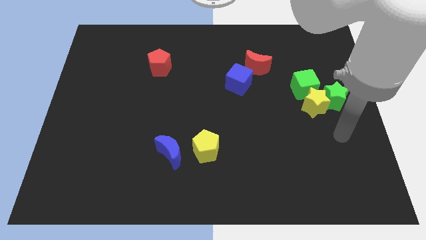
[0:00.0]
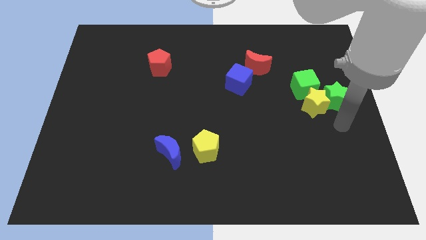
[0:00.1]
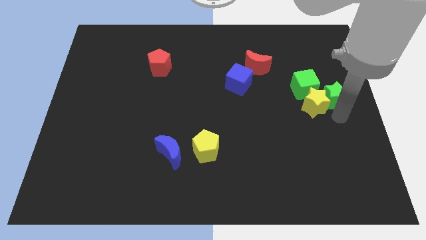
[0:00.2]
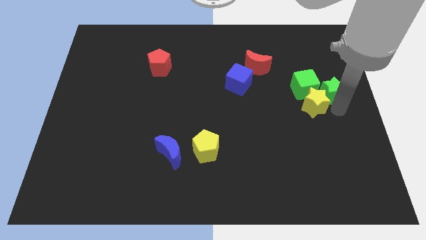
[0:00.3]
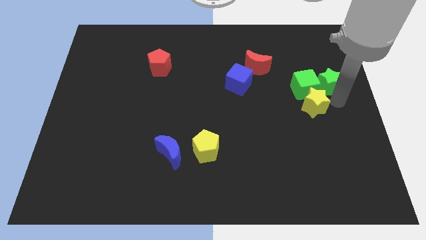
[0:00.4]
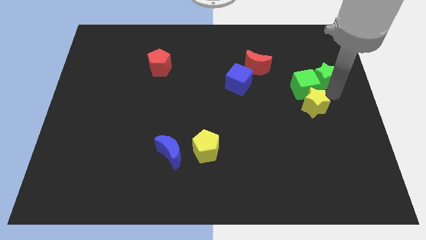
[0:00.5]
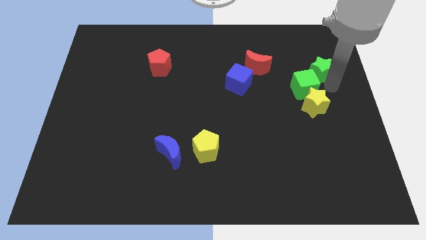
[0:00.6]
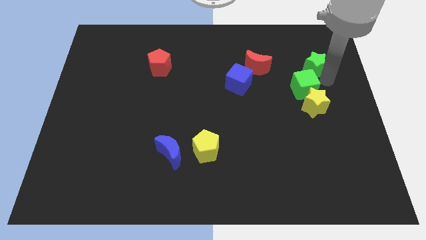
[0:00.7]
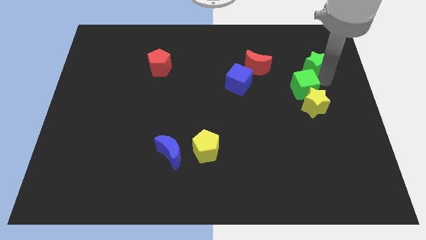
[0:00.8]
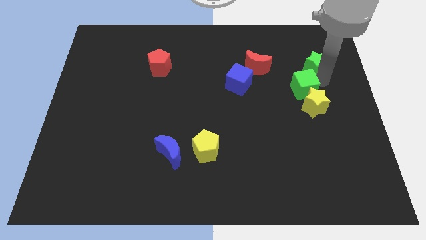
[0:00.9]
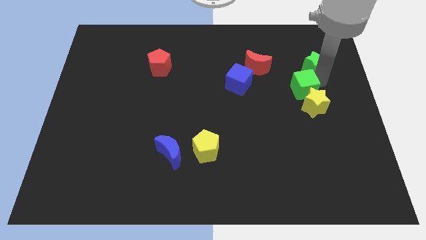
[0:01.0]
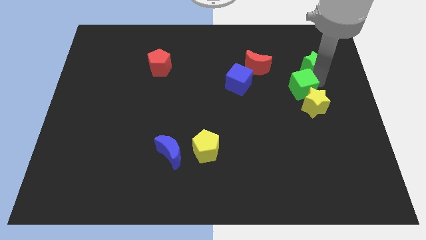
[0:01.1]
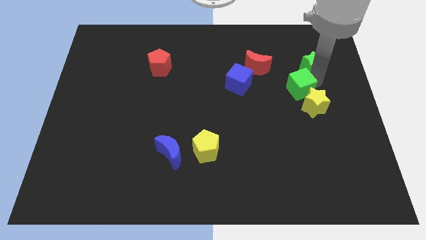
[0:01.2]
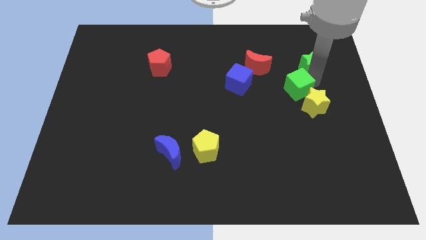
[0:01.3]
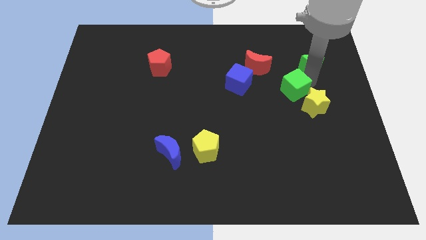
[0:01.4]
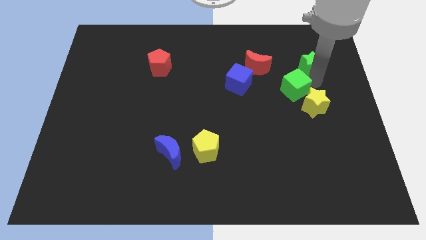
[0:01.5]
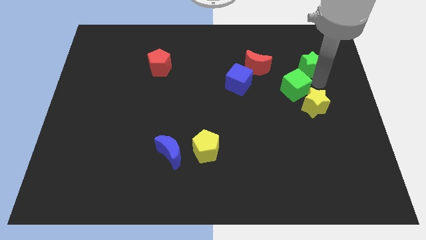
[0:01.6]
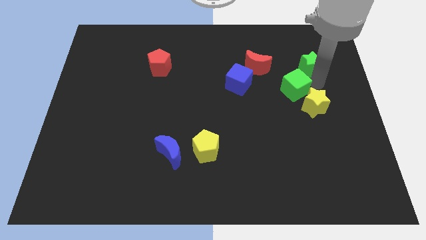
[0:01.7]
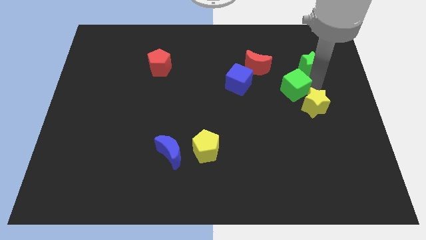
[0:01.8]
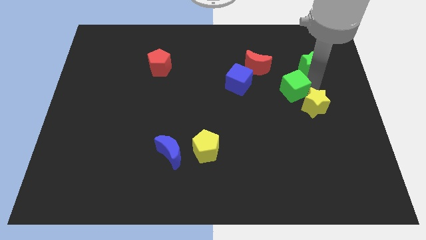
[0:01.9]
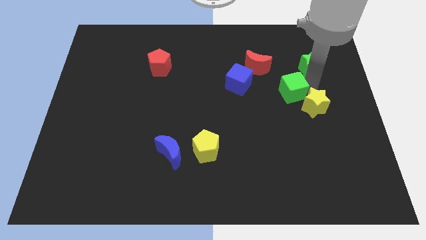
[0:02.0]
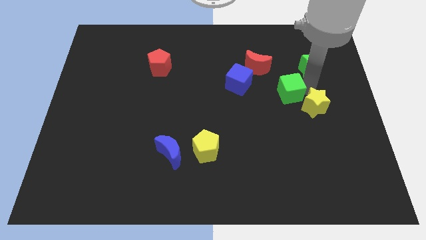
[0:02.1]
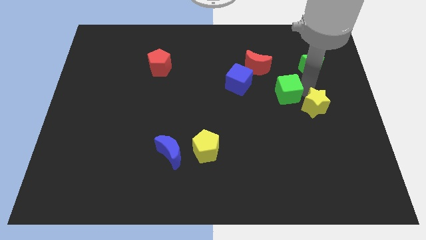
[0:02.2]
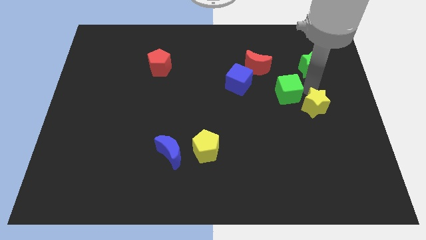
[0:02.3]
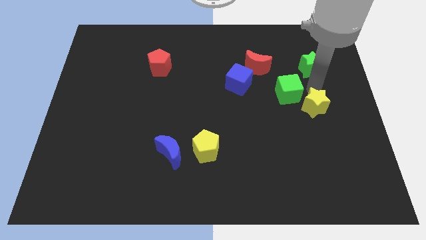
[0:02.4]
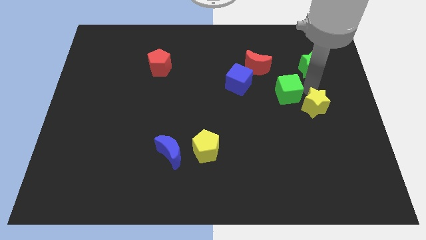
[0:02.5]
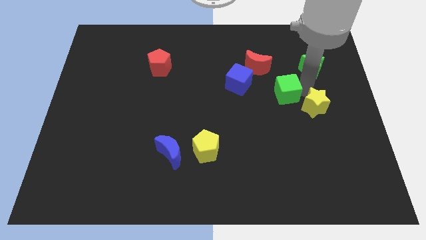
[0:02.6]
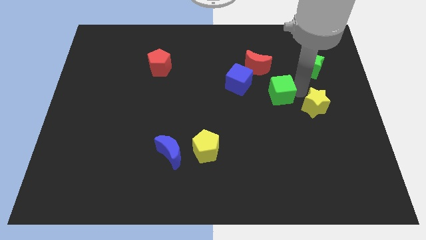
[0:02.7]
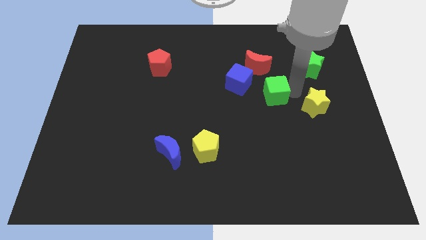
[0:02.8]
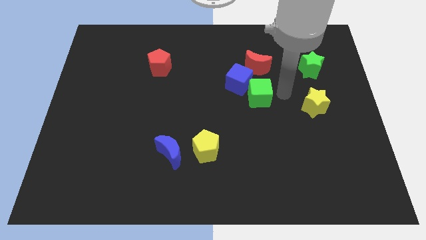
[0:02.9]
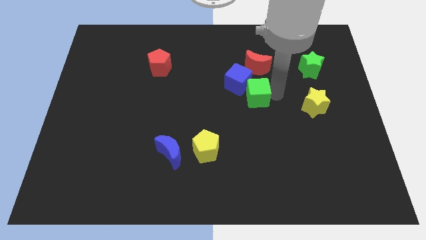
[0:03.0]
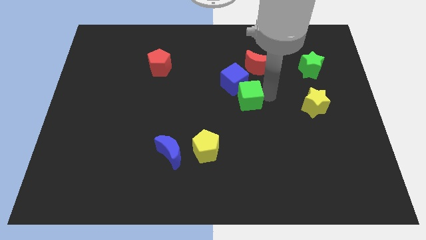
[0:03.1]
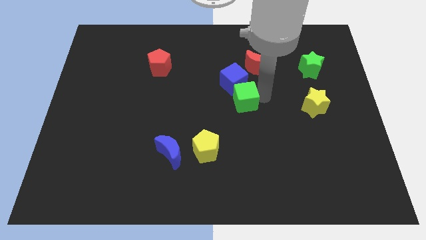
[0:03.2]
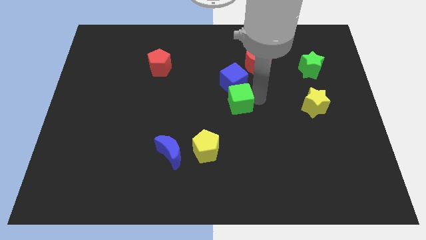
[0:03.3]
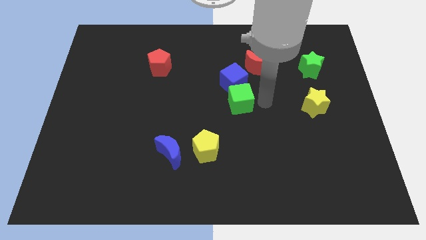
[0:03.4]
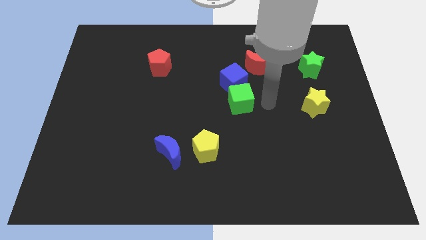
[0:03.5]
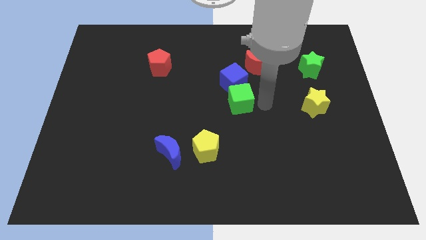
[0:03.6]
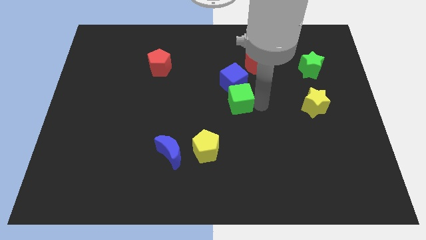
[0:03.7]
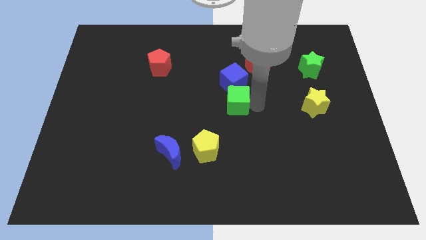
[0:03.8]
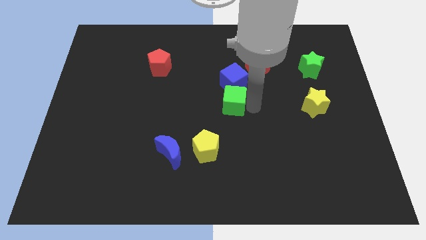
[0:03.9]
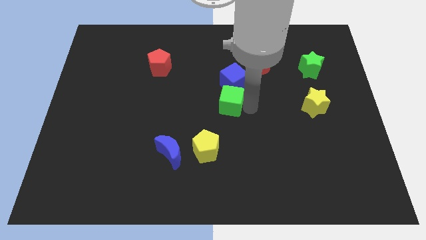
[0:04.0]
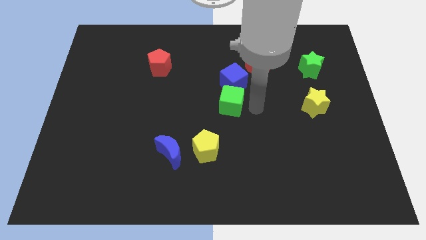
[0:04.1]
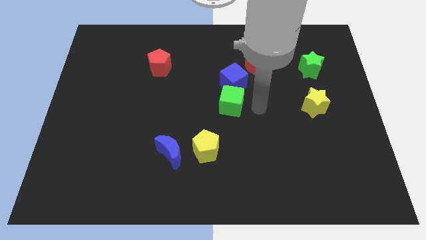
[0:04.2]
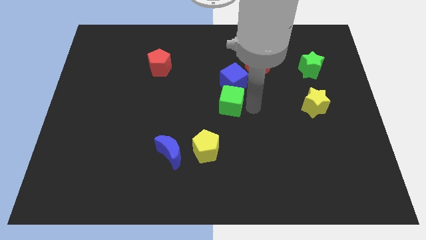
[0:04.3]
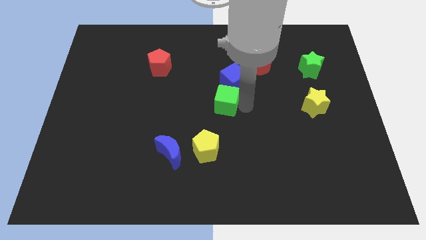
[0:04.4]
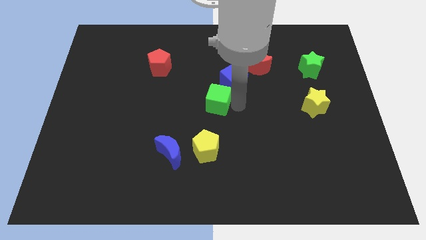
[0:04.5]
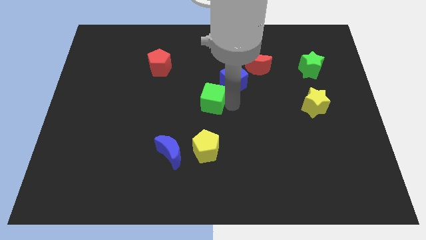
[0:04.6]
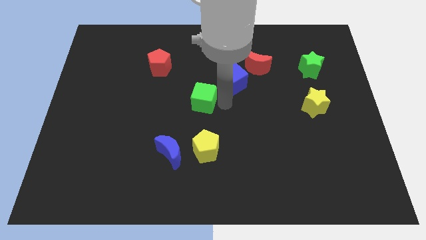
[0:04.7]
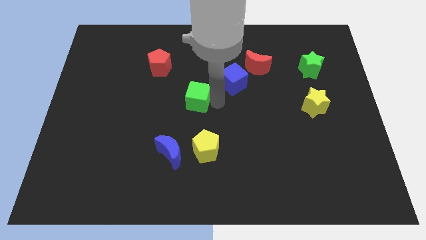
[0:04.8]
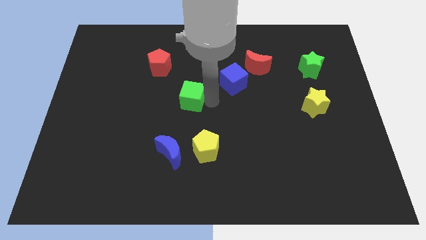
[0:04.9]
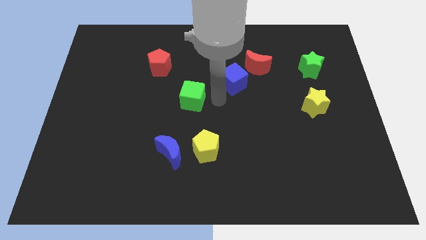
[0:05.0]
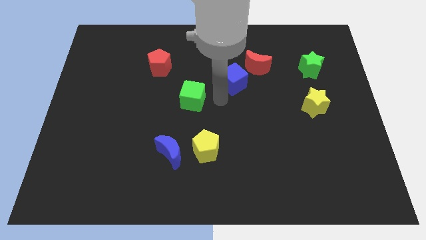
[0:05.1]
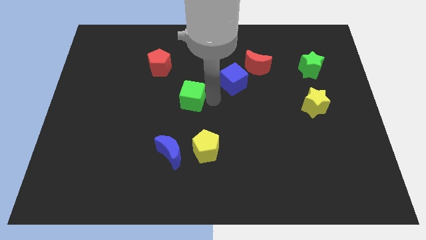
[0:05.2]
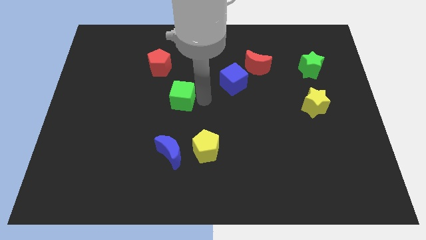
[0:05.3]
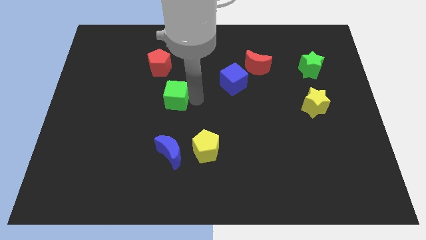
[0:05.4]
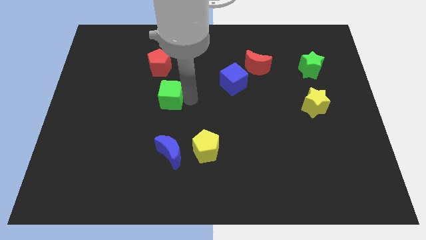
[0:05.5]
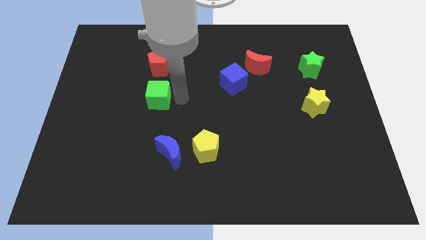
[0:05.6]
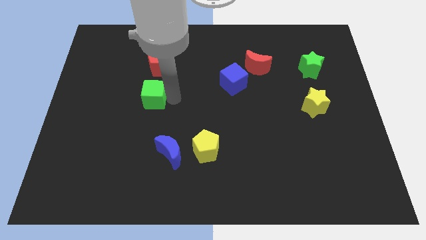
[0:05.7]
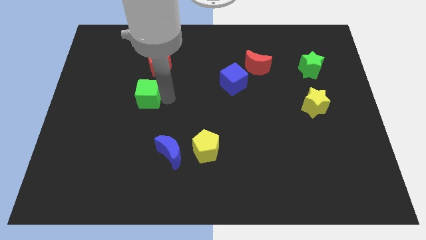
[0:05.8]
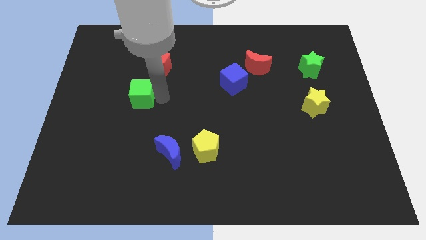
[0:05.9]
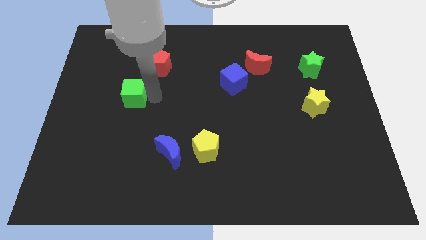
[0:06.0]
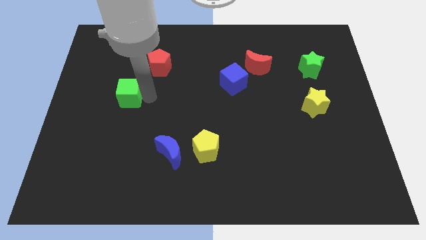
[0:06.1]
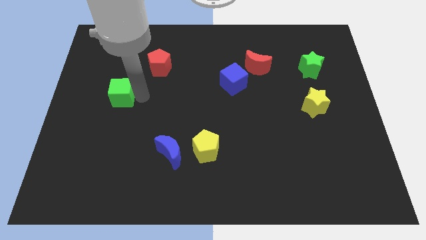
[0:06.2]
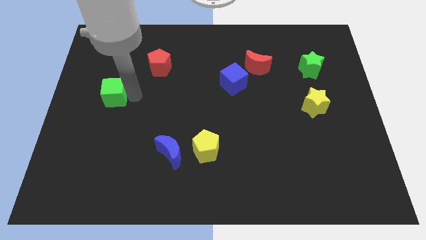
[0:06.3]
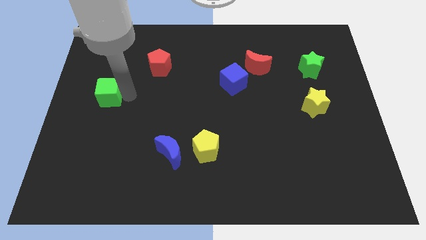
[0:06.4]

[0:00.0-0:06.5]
move the green cube to the center left
